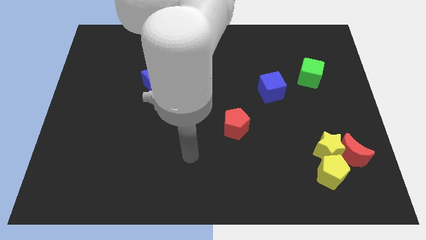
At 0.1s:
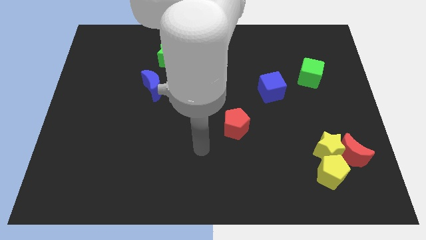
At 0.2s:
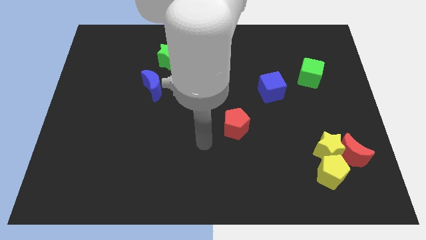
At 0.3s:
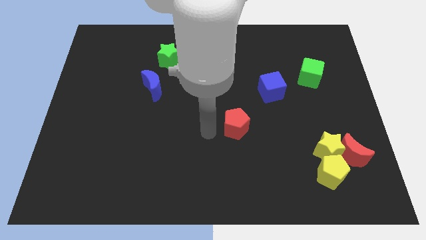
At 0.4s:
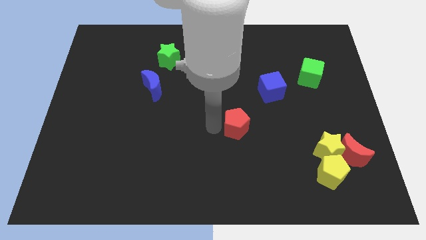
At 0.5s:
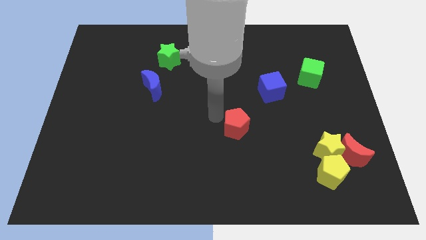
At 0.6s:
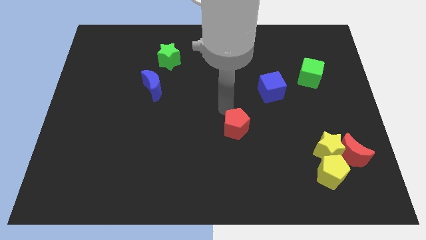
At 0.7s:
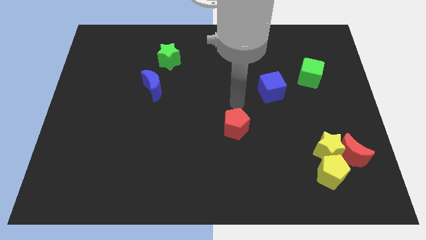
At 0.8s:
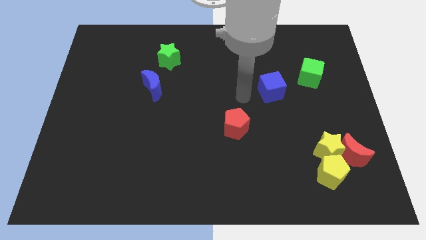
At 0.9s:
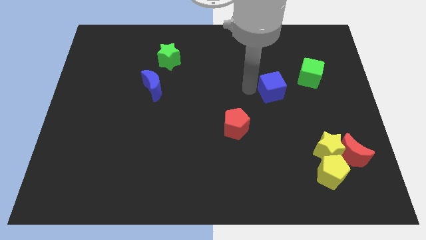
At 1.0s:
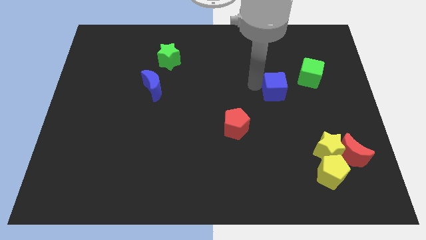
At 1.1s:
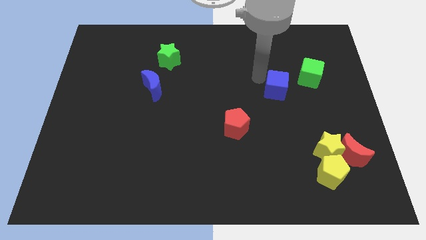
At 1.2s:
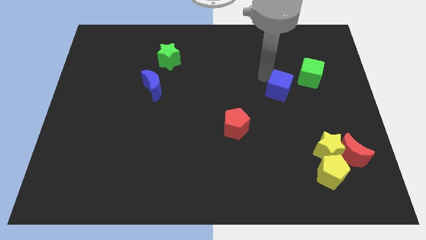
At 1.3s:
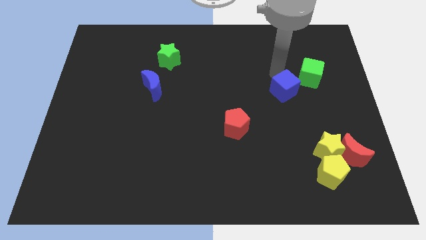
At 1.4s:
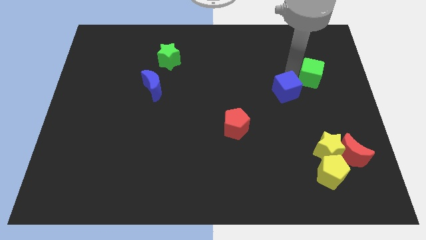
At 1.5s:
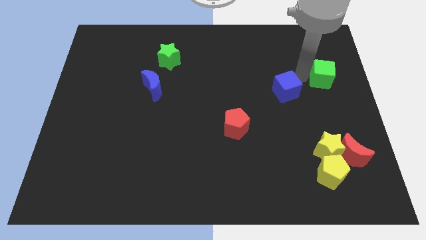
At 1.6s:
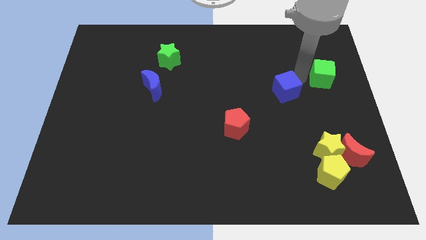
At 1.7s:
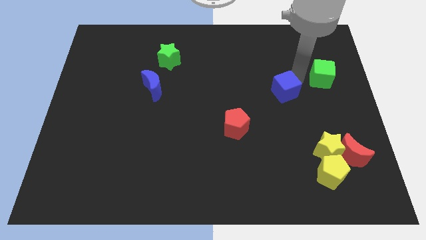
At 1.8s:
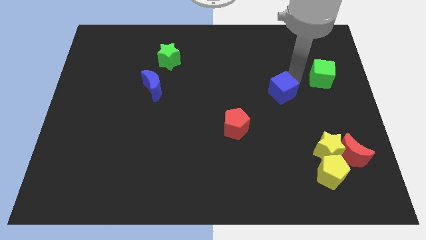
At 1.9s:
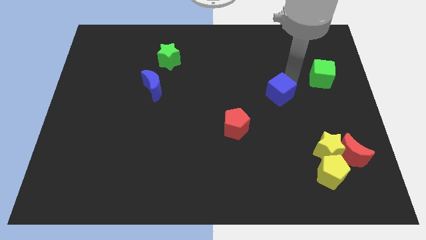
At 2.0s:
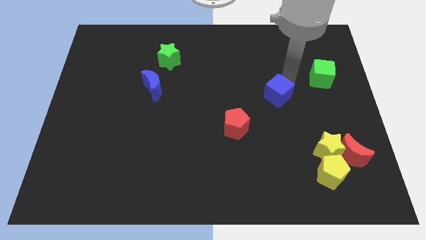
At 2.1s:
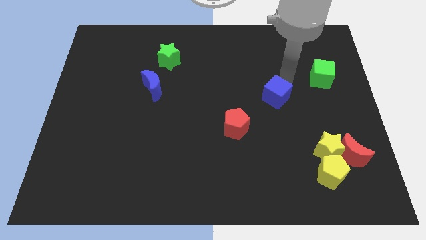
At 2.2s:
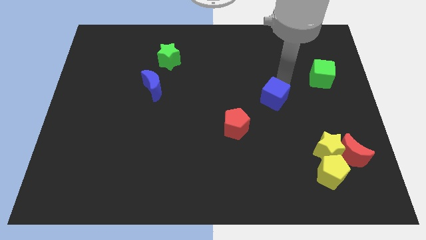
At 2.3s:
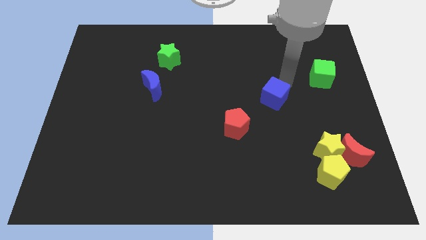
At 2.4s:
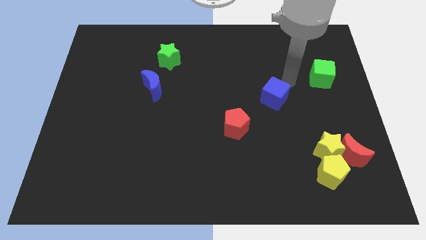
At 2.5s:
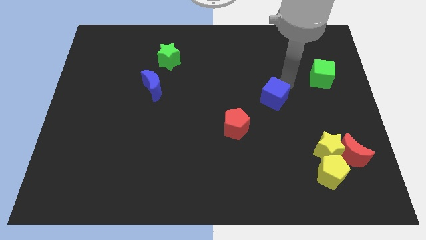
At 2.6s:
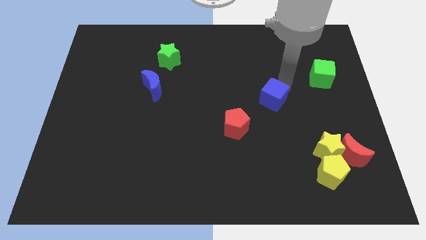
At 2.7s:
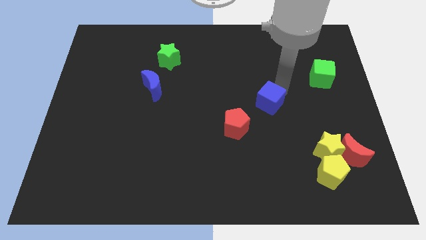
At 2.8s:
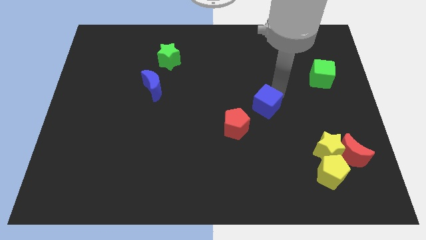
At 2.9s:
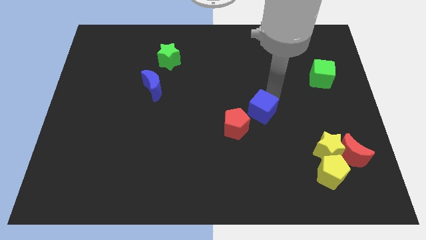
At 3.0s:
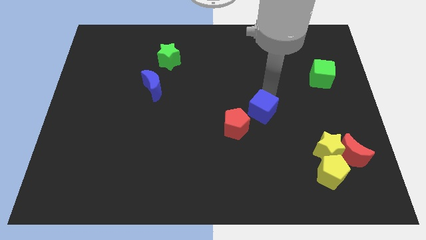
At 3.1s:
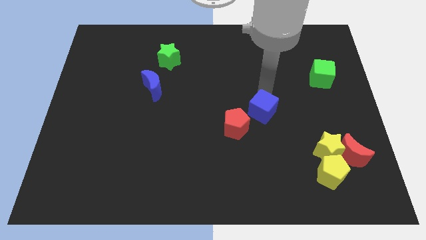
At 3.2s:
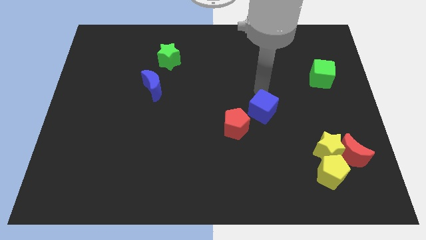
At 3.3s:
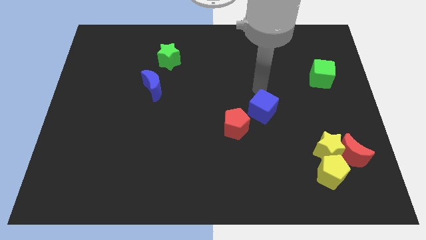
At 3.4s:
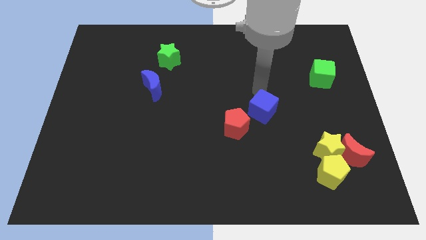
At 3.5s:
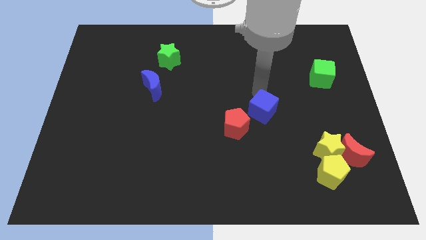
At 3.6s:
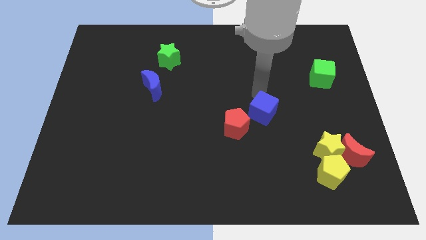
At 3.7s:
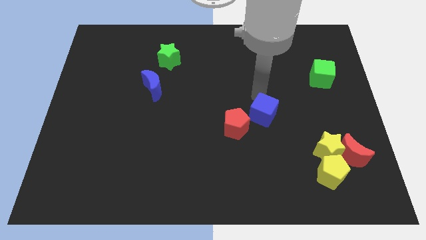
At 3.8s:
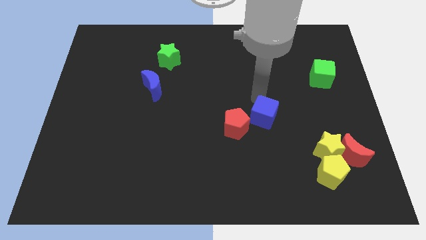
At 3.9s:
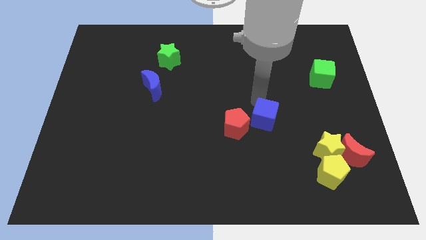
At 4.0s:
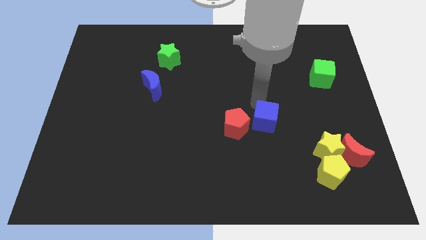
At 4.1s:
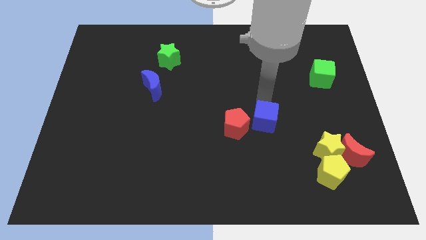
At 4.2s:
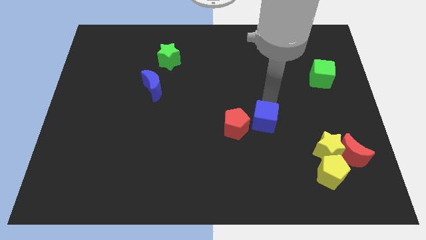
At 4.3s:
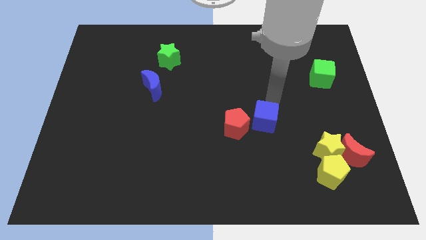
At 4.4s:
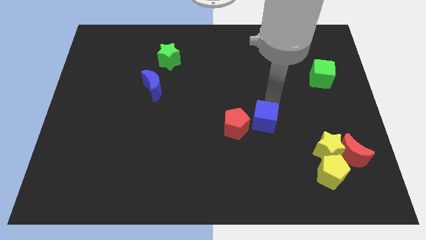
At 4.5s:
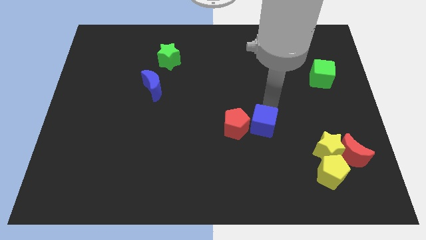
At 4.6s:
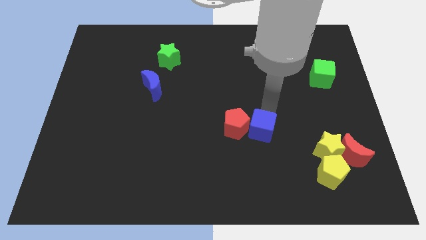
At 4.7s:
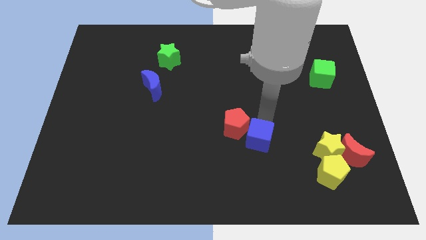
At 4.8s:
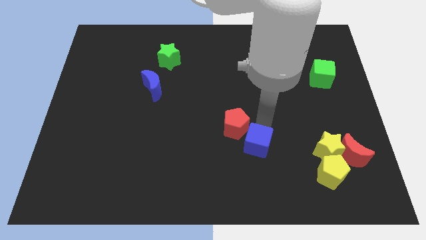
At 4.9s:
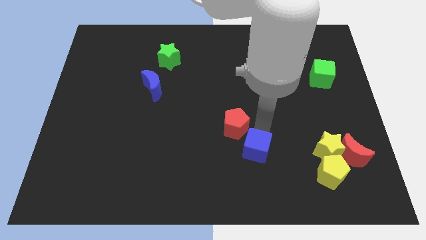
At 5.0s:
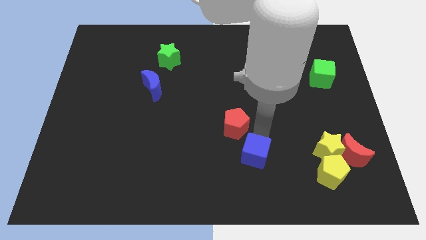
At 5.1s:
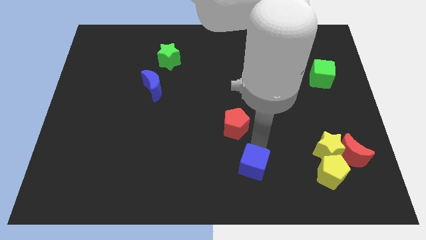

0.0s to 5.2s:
push the blue cube to the bottom side

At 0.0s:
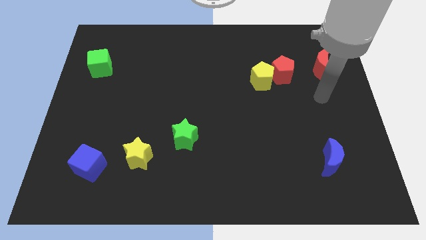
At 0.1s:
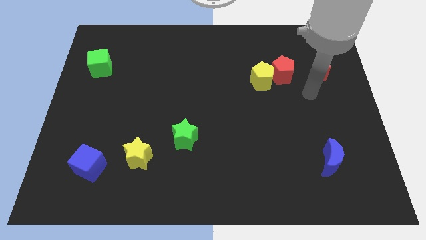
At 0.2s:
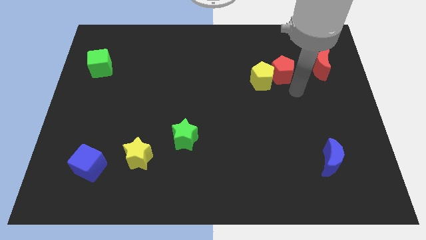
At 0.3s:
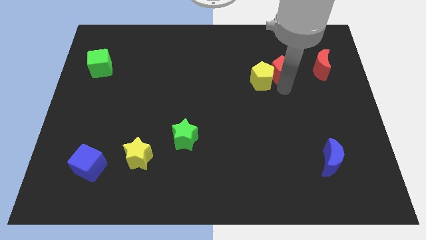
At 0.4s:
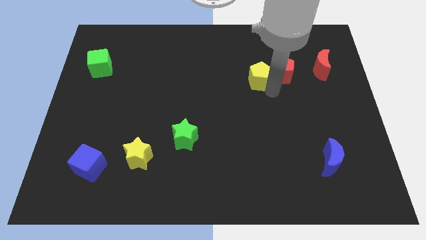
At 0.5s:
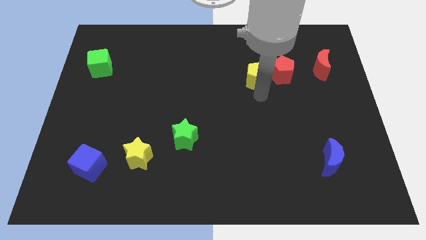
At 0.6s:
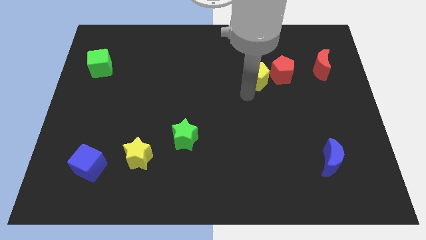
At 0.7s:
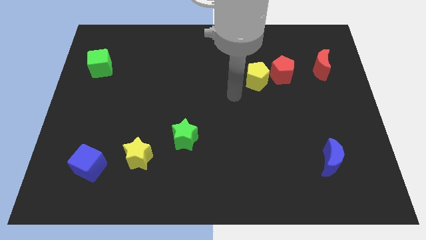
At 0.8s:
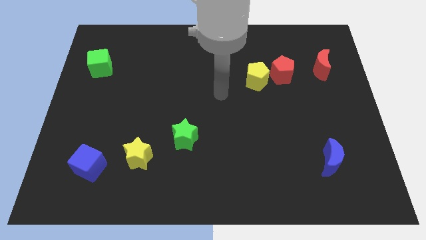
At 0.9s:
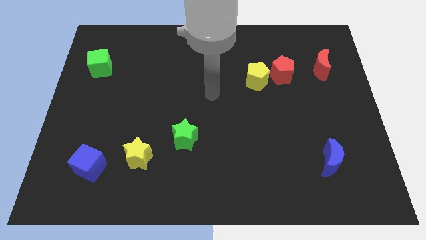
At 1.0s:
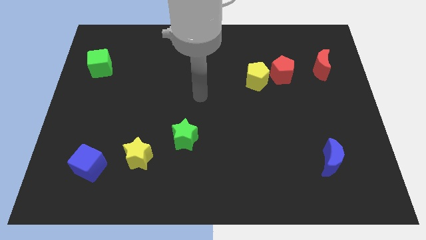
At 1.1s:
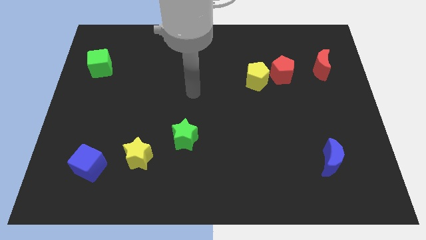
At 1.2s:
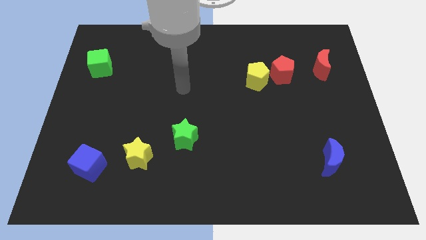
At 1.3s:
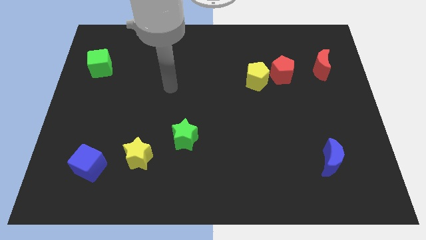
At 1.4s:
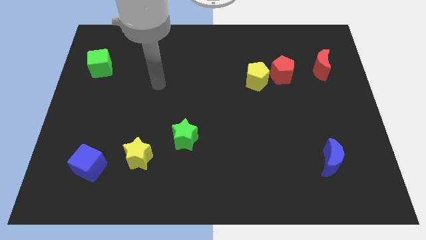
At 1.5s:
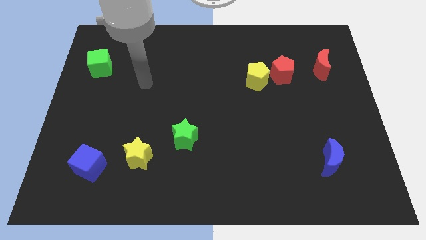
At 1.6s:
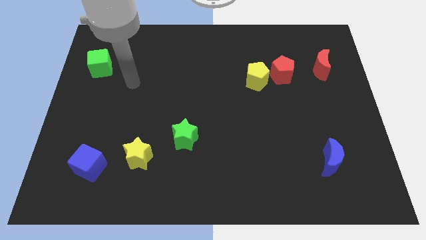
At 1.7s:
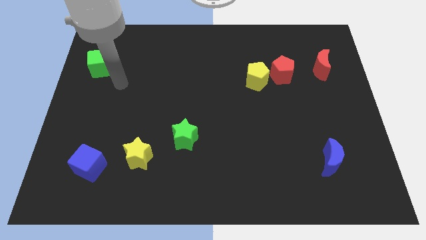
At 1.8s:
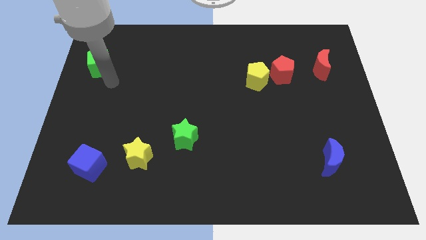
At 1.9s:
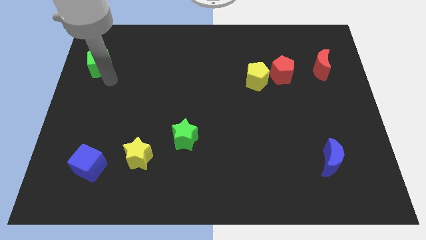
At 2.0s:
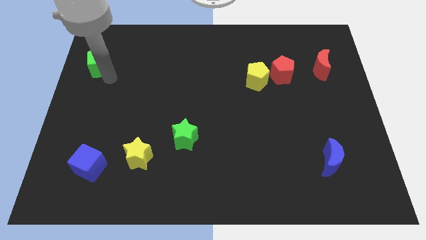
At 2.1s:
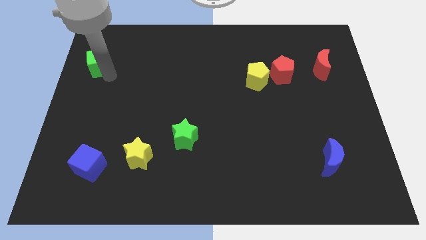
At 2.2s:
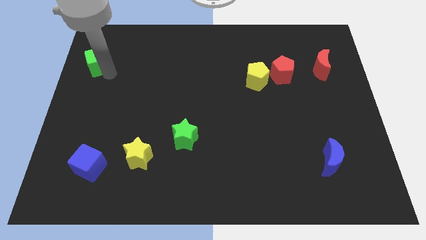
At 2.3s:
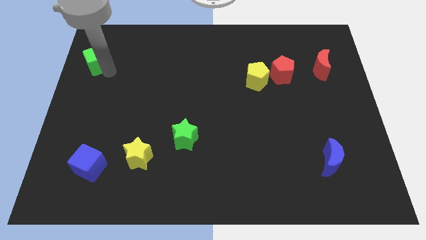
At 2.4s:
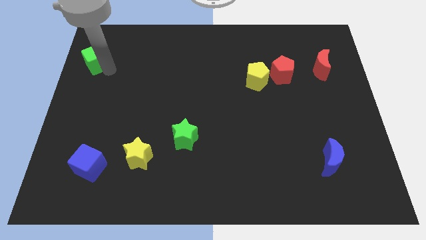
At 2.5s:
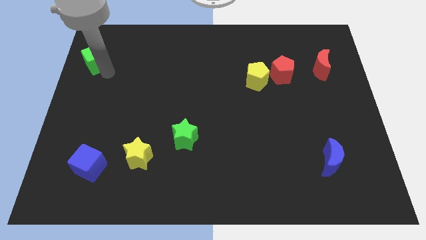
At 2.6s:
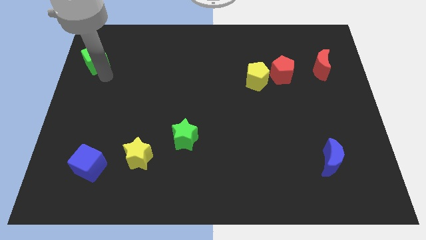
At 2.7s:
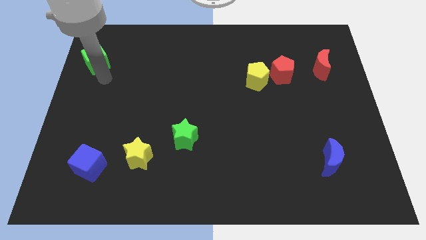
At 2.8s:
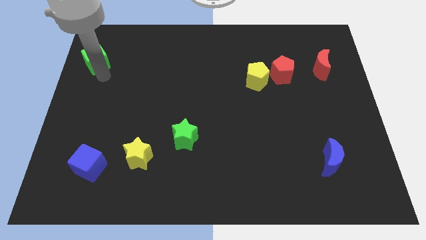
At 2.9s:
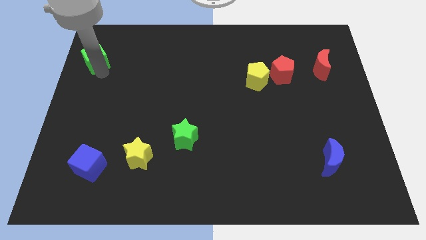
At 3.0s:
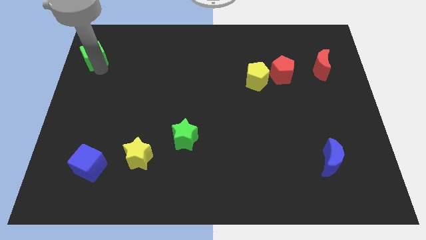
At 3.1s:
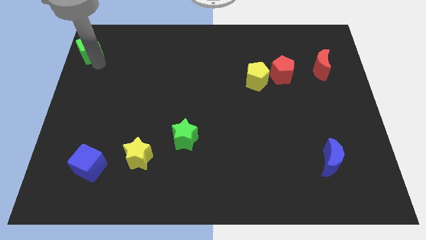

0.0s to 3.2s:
move the green cube to the top left
